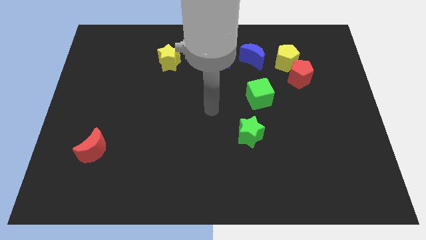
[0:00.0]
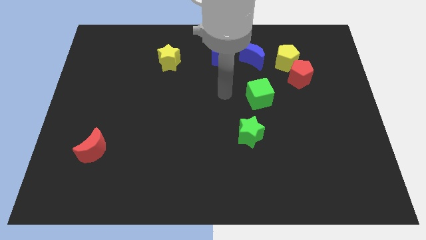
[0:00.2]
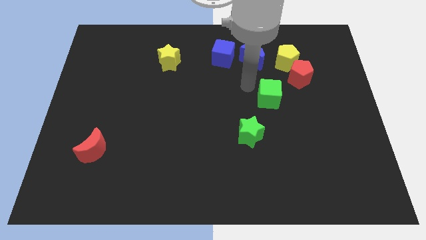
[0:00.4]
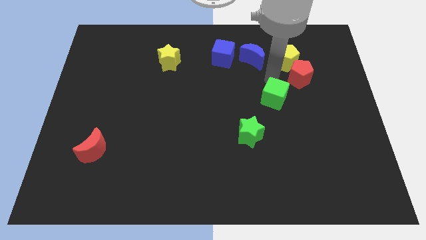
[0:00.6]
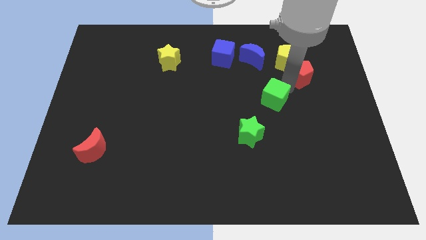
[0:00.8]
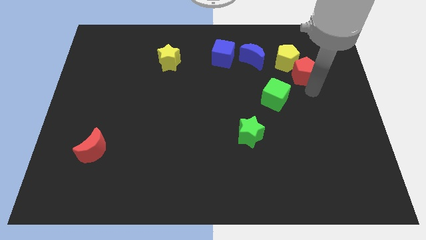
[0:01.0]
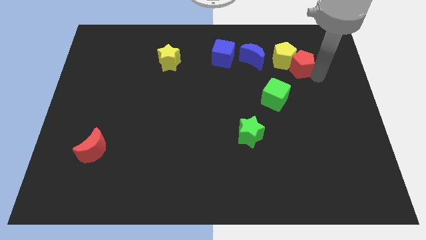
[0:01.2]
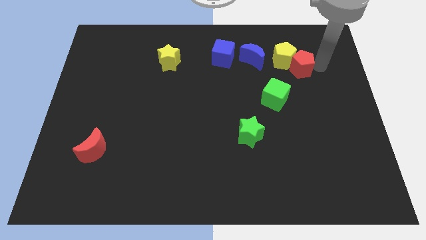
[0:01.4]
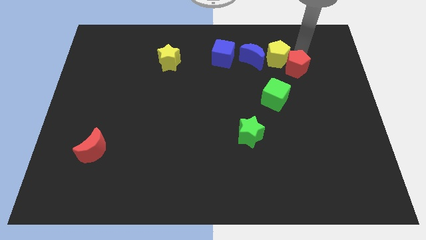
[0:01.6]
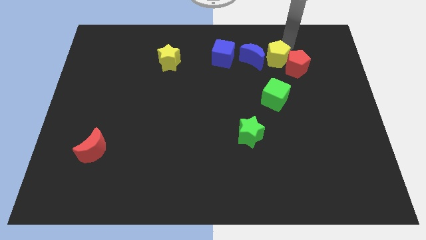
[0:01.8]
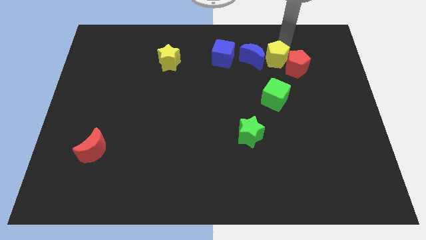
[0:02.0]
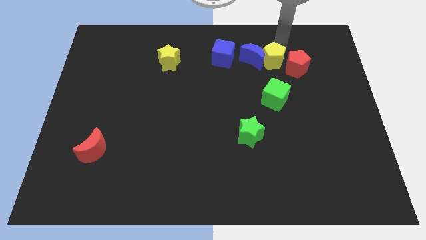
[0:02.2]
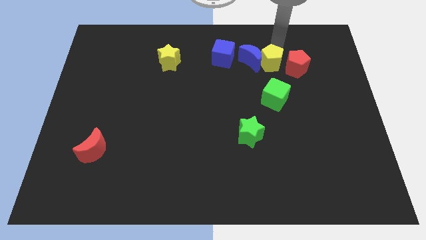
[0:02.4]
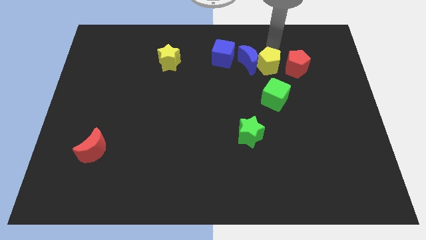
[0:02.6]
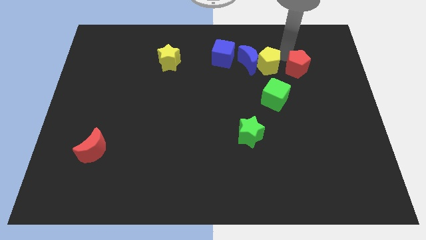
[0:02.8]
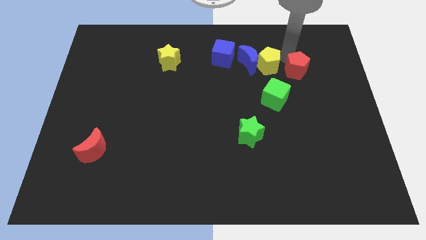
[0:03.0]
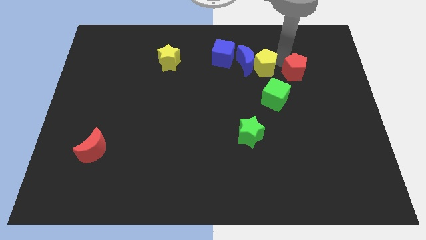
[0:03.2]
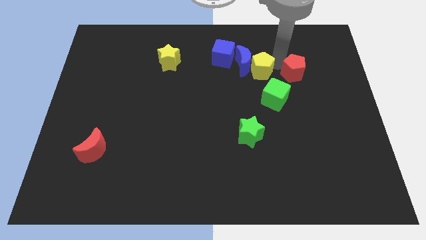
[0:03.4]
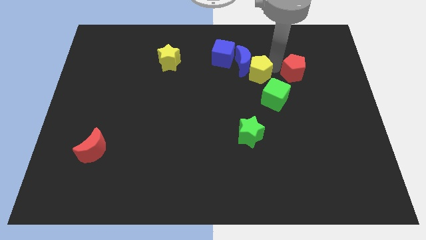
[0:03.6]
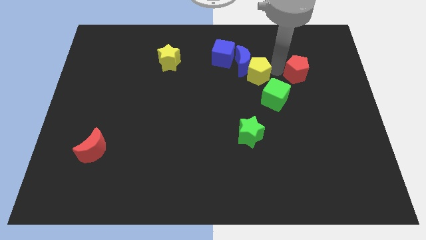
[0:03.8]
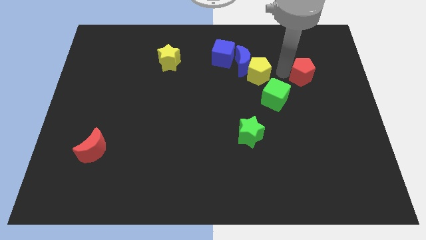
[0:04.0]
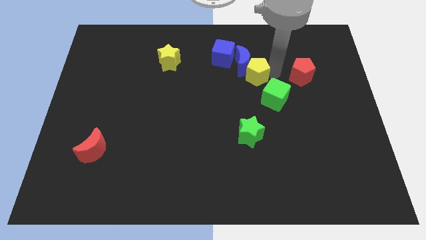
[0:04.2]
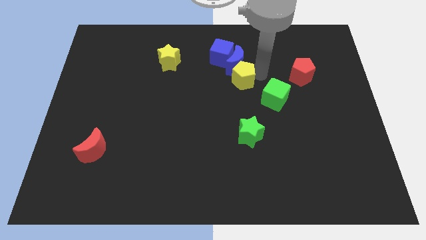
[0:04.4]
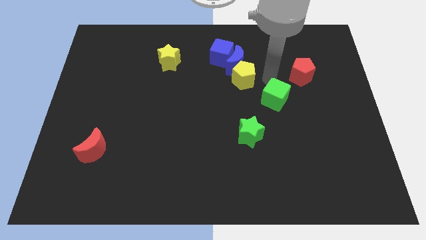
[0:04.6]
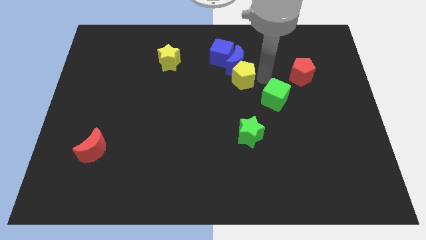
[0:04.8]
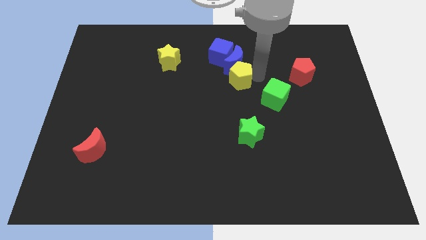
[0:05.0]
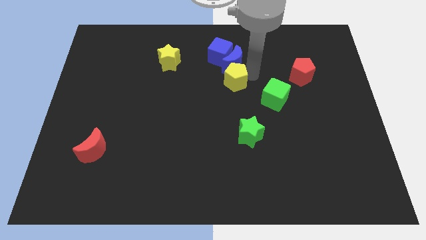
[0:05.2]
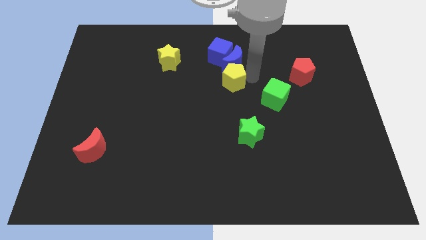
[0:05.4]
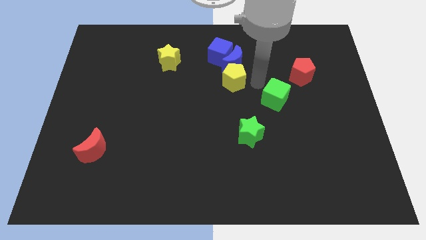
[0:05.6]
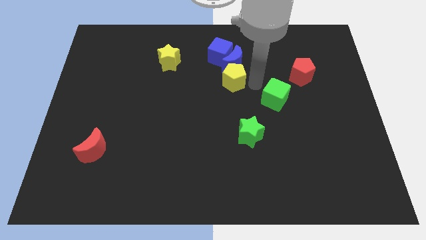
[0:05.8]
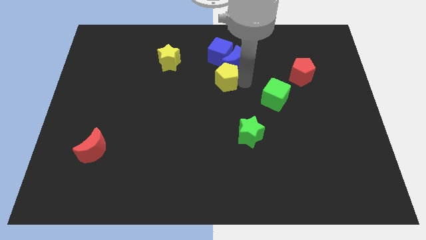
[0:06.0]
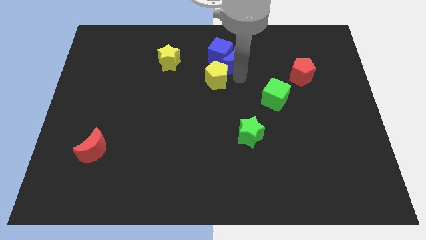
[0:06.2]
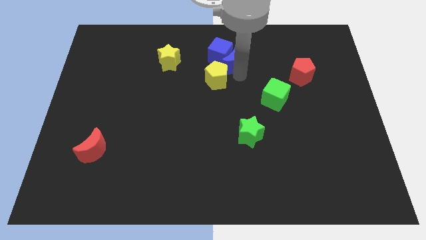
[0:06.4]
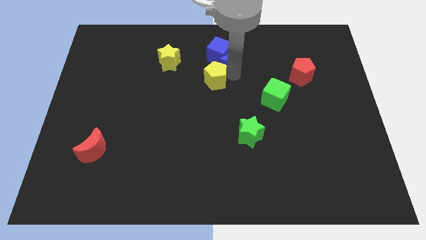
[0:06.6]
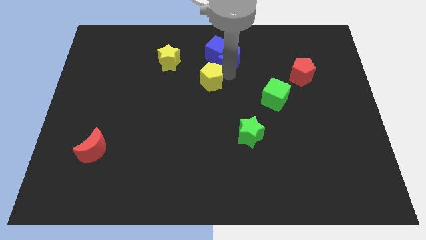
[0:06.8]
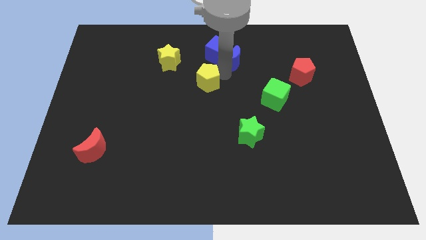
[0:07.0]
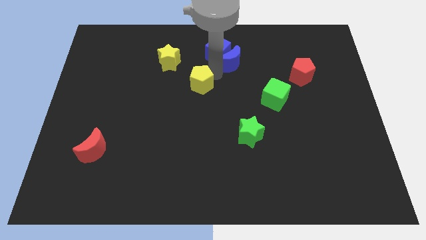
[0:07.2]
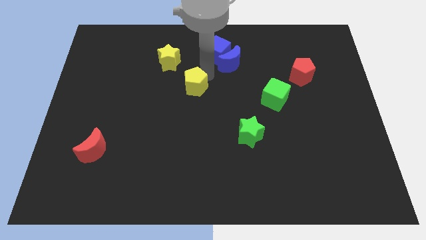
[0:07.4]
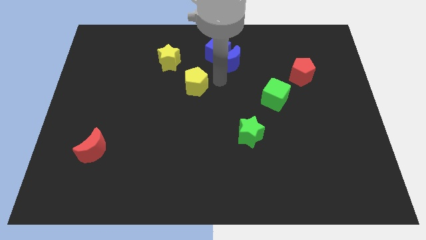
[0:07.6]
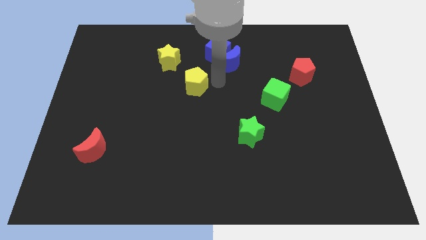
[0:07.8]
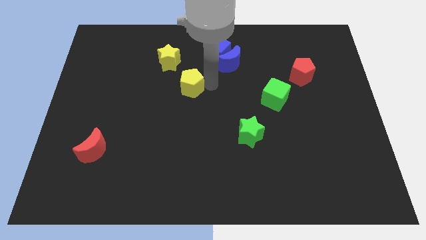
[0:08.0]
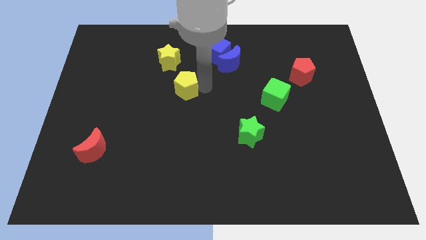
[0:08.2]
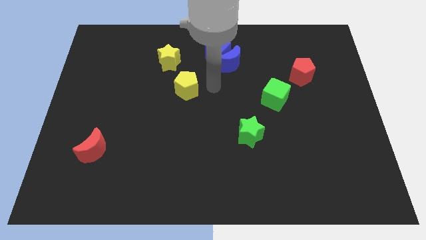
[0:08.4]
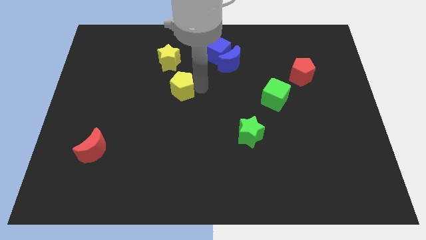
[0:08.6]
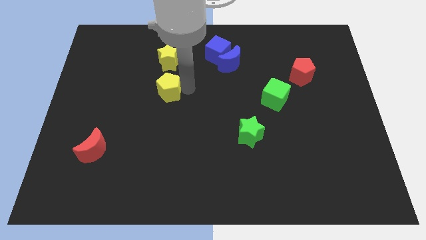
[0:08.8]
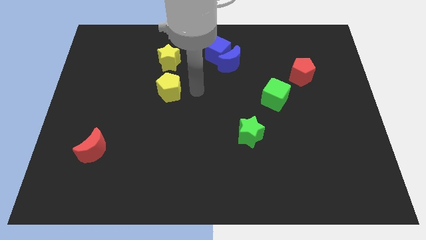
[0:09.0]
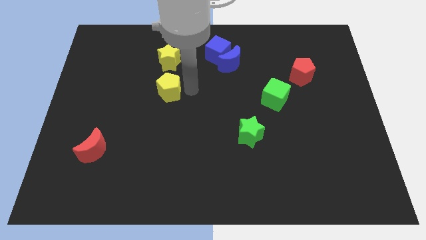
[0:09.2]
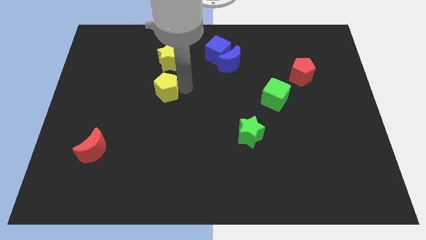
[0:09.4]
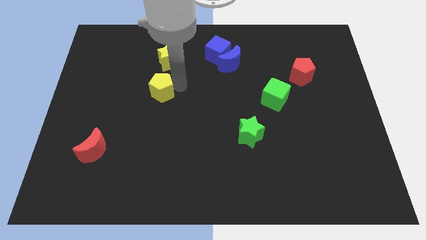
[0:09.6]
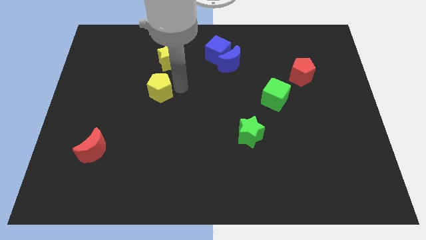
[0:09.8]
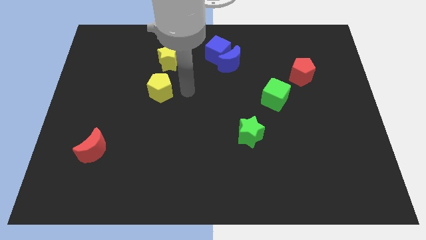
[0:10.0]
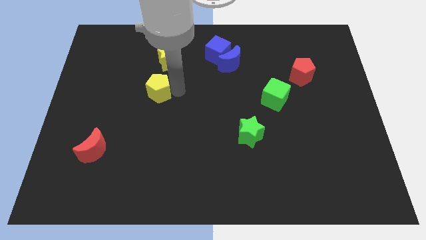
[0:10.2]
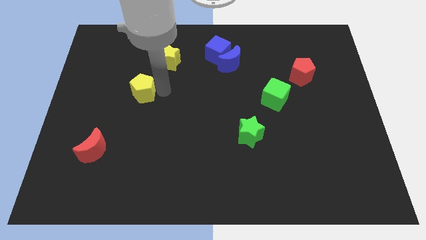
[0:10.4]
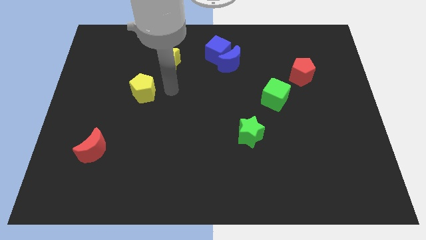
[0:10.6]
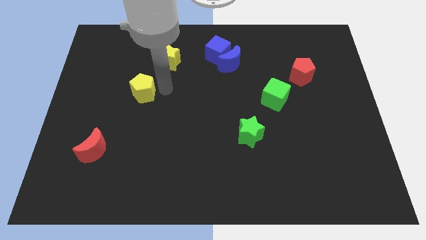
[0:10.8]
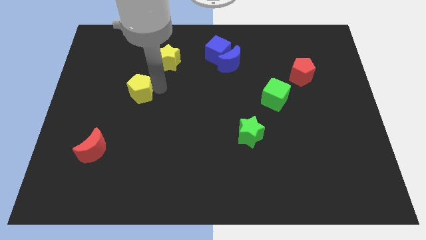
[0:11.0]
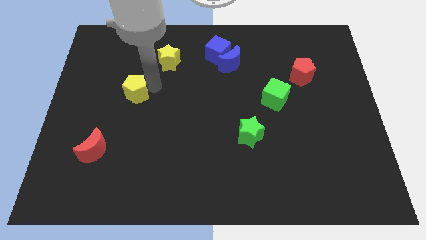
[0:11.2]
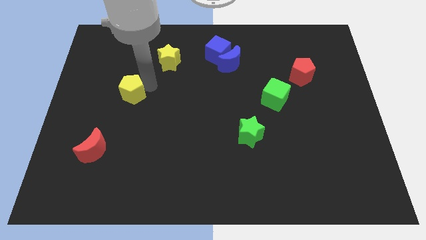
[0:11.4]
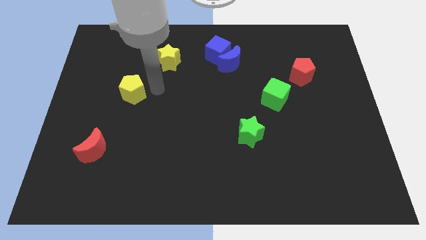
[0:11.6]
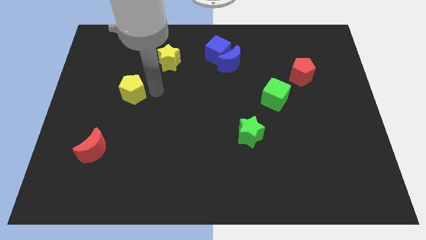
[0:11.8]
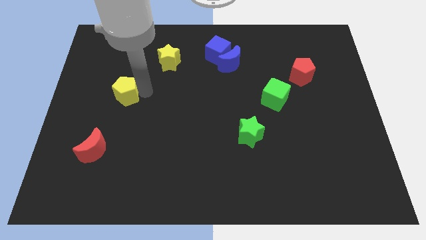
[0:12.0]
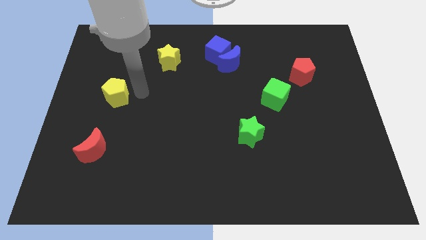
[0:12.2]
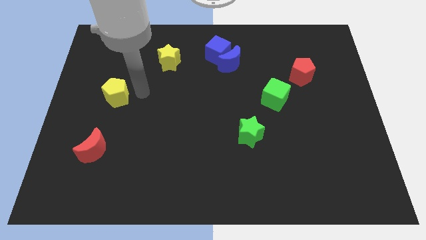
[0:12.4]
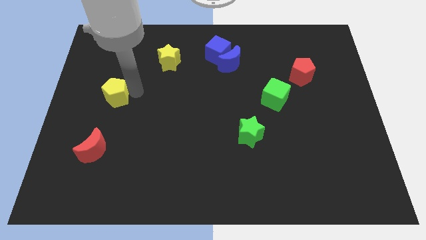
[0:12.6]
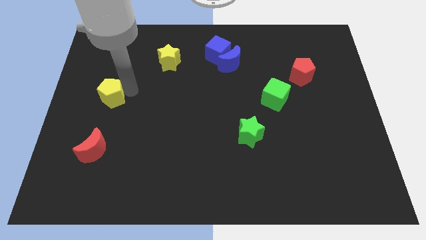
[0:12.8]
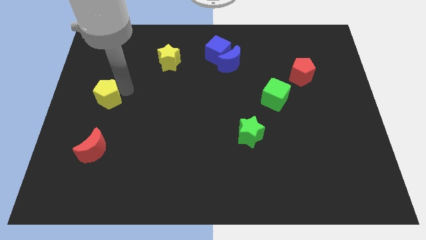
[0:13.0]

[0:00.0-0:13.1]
move the yellow pentagon to the center left

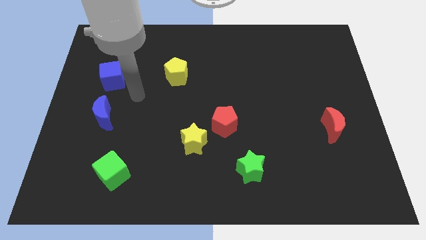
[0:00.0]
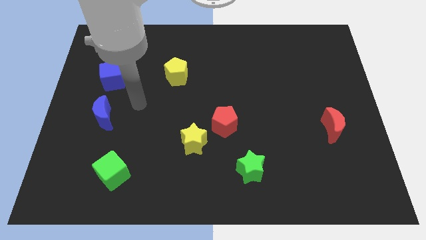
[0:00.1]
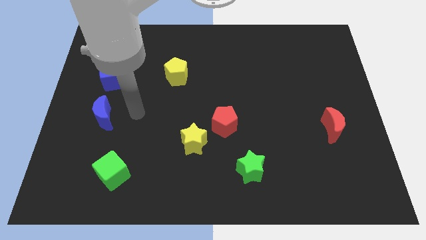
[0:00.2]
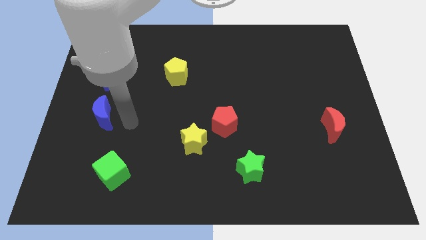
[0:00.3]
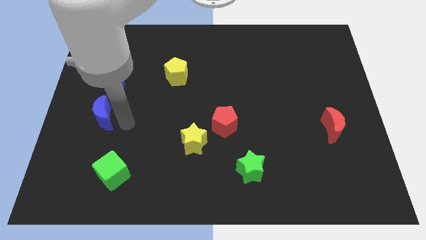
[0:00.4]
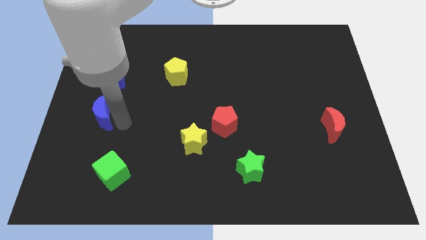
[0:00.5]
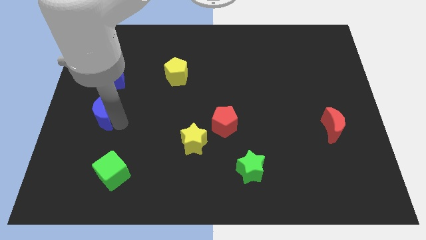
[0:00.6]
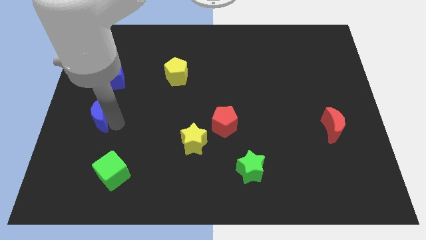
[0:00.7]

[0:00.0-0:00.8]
push the blue moon to the center left

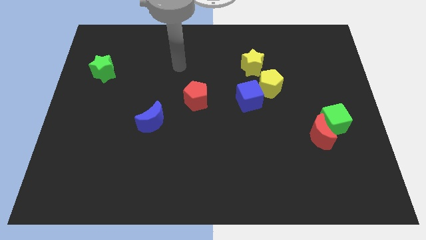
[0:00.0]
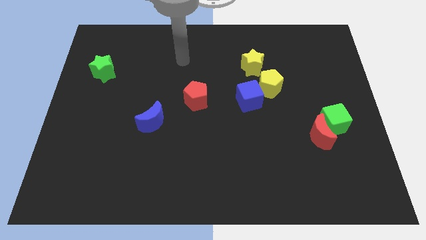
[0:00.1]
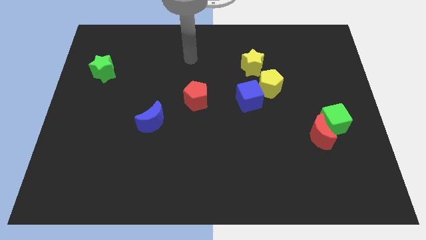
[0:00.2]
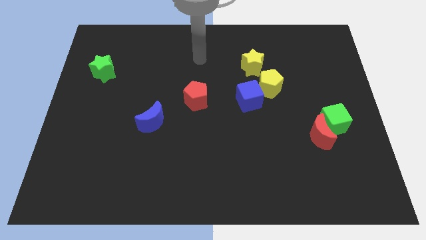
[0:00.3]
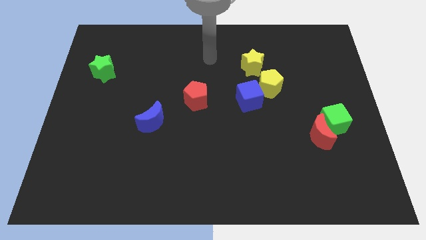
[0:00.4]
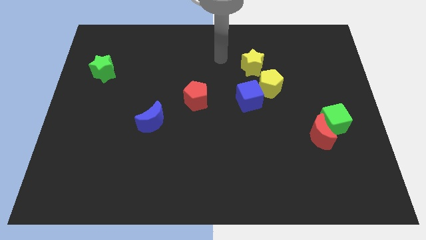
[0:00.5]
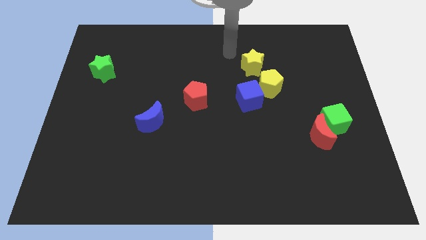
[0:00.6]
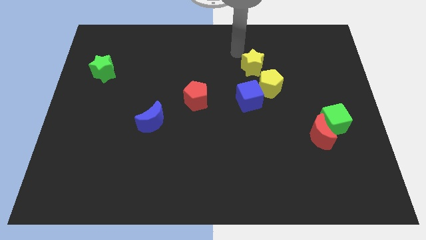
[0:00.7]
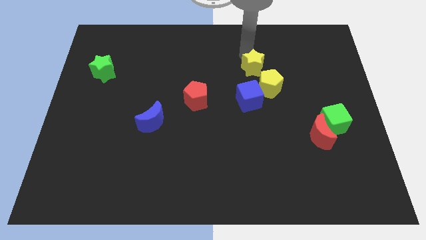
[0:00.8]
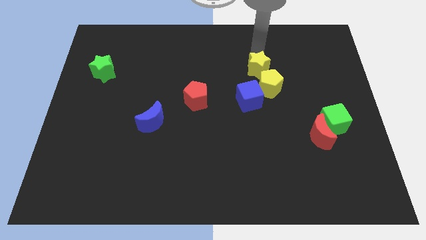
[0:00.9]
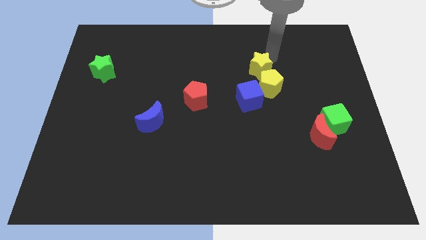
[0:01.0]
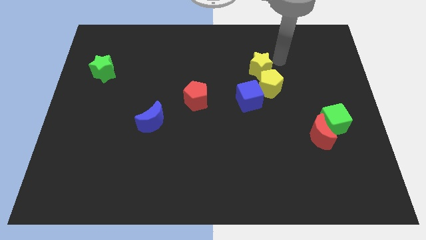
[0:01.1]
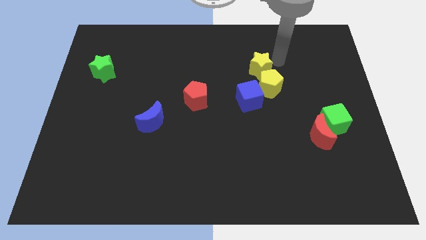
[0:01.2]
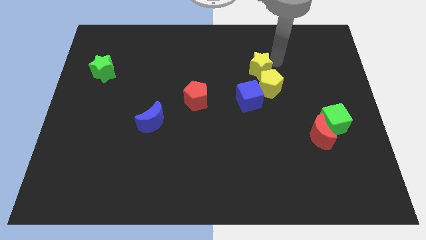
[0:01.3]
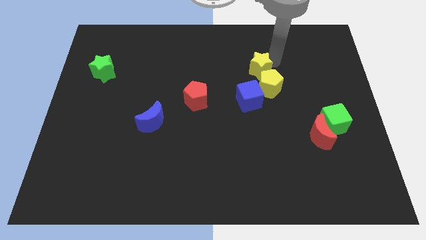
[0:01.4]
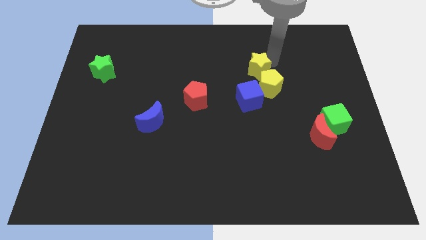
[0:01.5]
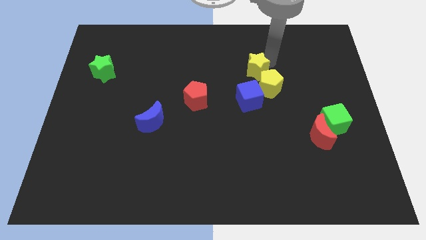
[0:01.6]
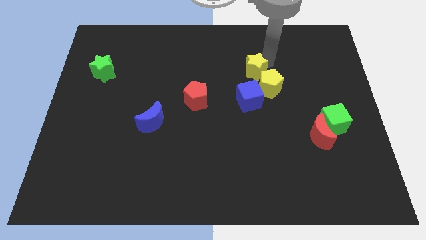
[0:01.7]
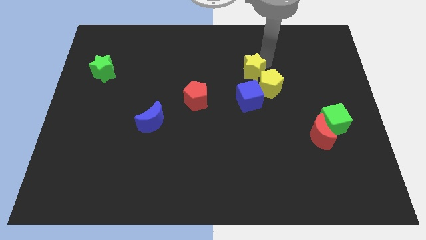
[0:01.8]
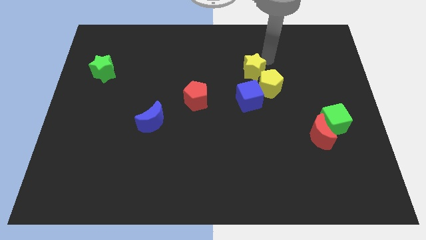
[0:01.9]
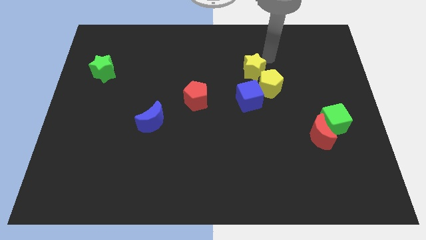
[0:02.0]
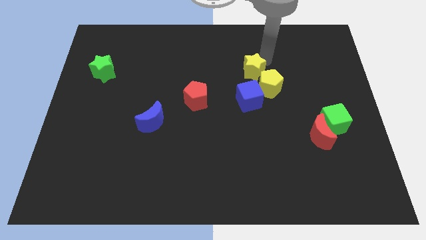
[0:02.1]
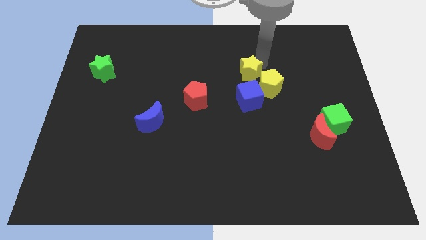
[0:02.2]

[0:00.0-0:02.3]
slide the yellow star to the center
